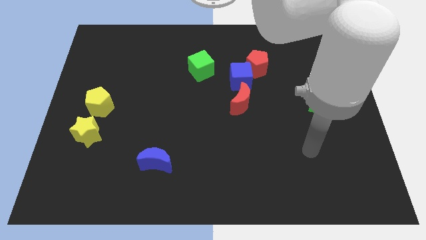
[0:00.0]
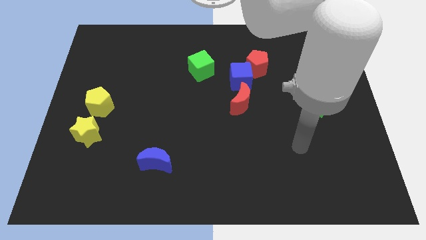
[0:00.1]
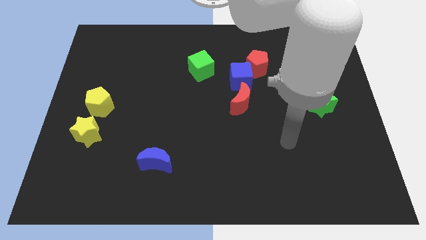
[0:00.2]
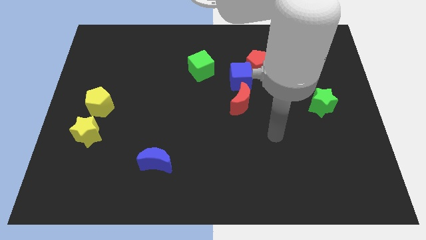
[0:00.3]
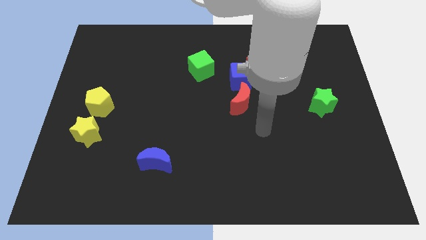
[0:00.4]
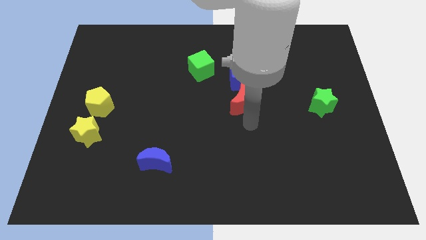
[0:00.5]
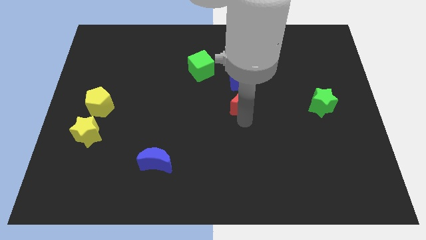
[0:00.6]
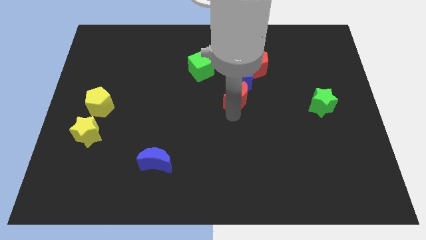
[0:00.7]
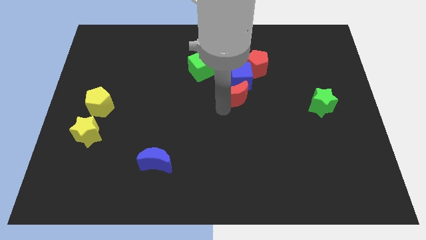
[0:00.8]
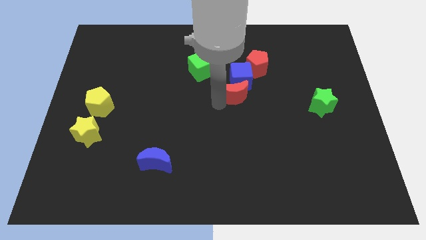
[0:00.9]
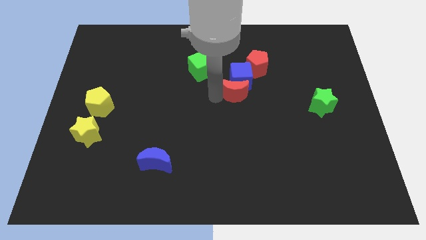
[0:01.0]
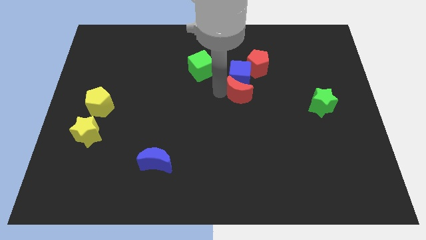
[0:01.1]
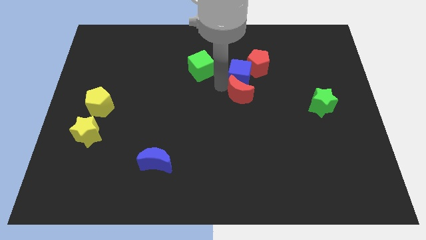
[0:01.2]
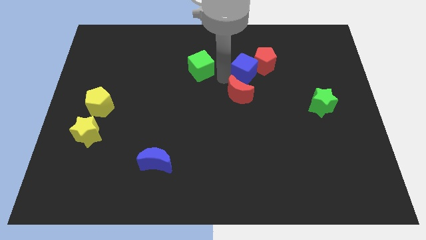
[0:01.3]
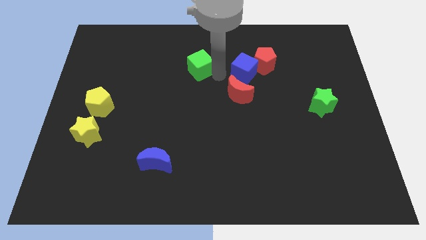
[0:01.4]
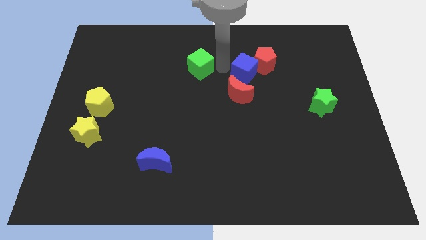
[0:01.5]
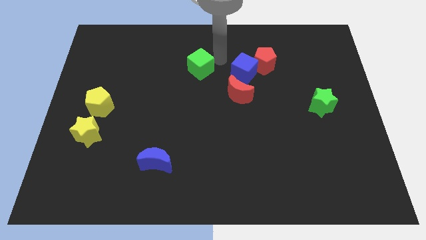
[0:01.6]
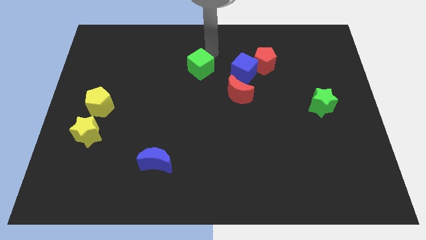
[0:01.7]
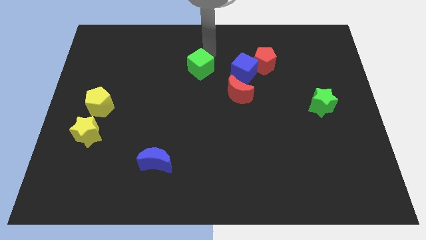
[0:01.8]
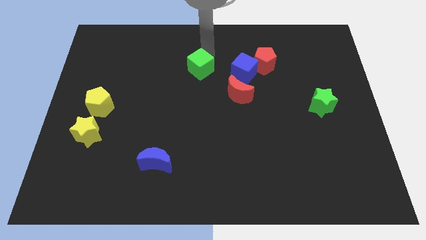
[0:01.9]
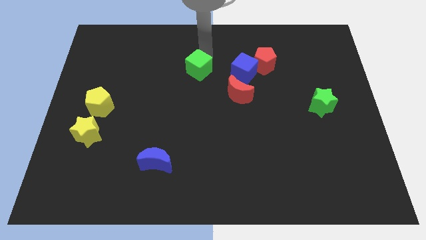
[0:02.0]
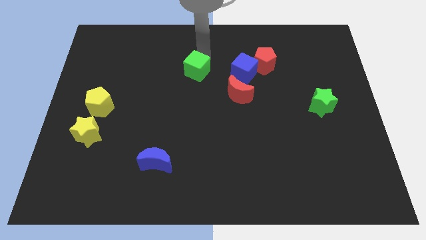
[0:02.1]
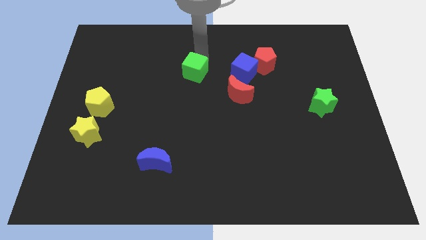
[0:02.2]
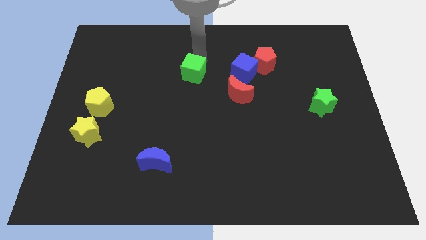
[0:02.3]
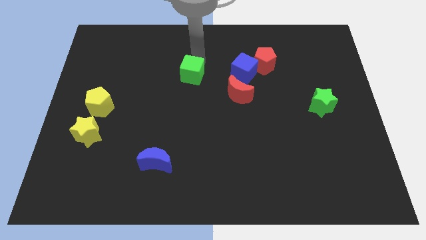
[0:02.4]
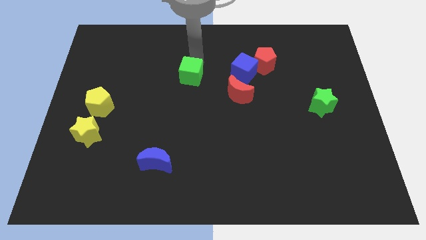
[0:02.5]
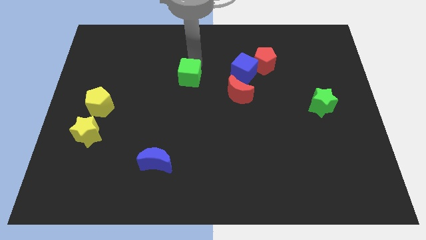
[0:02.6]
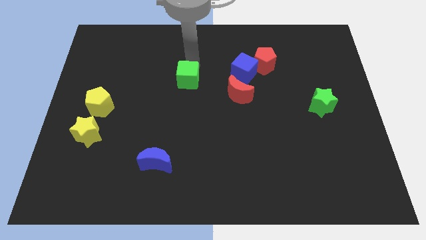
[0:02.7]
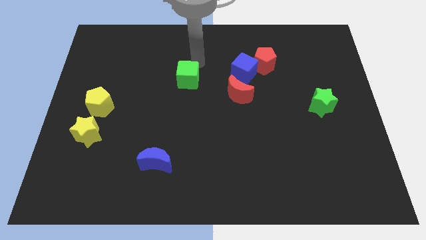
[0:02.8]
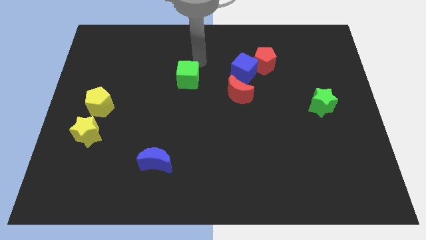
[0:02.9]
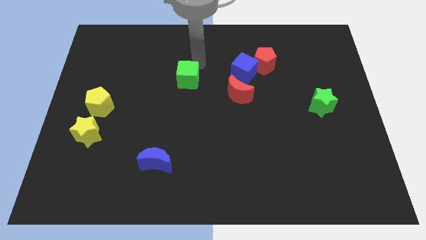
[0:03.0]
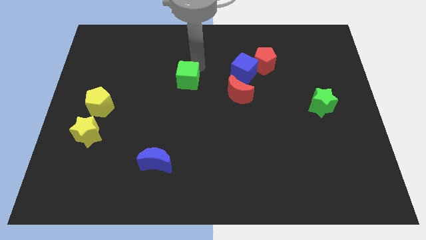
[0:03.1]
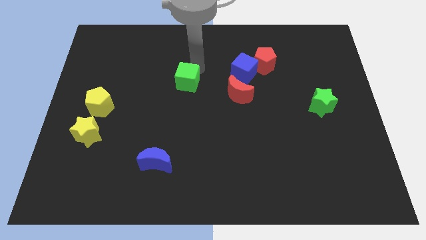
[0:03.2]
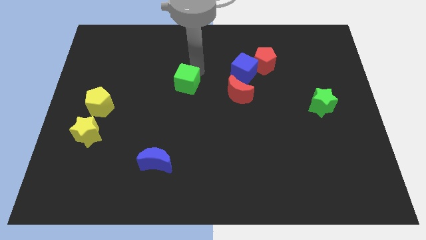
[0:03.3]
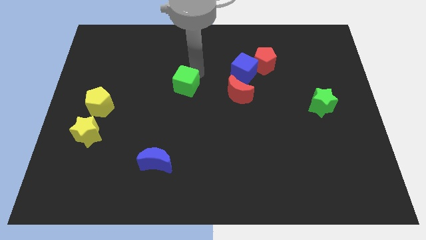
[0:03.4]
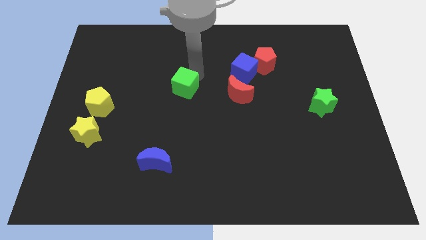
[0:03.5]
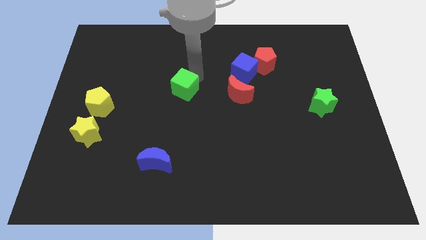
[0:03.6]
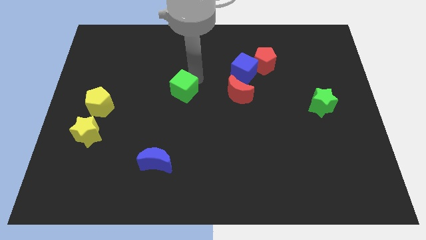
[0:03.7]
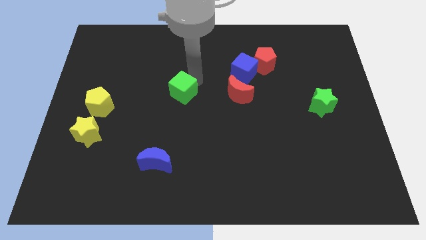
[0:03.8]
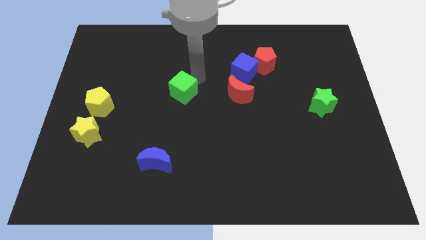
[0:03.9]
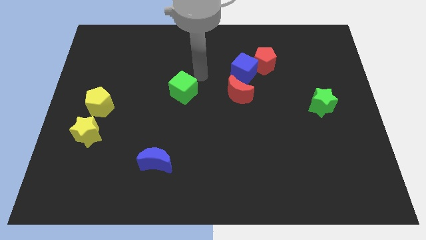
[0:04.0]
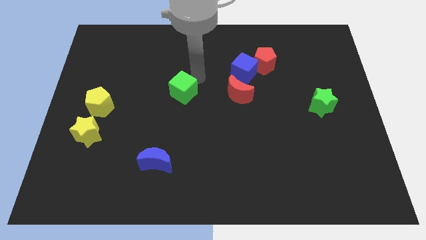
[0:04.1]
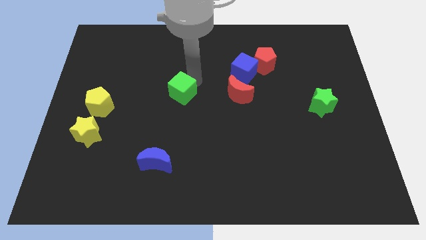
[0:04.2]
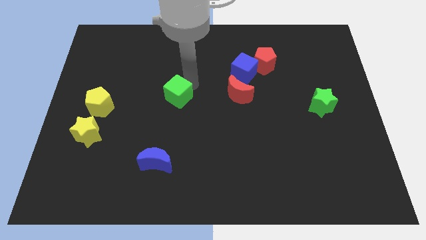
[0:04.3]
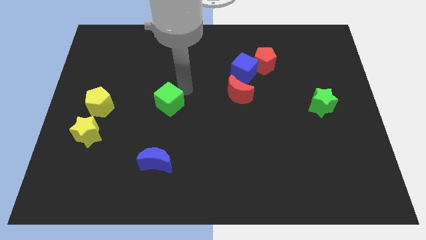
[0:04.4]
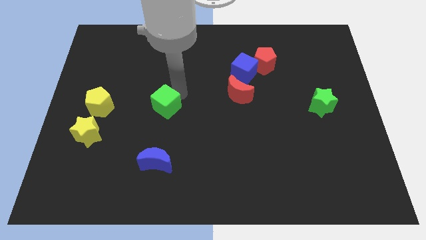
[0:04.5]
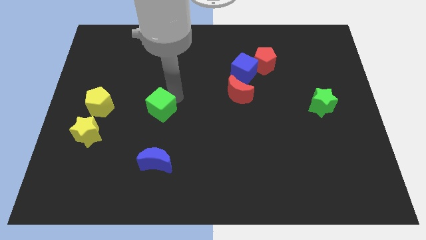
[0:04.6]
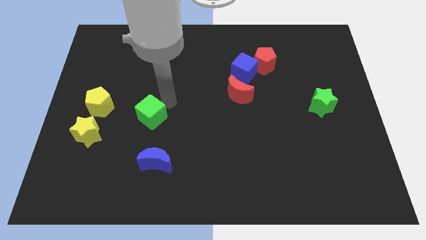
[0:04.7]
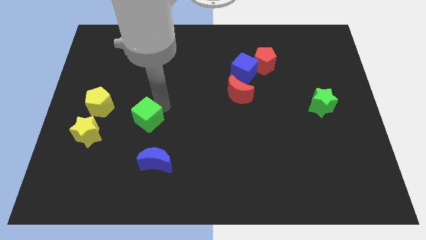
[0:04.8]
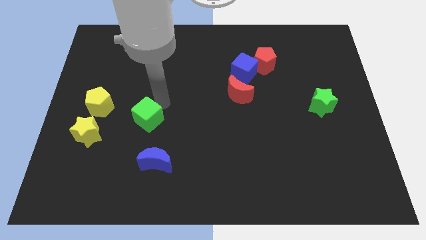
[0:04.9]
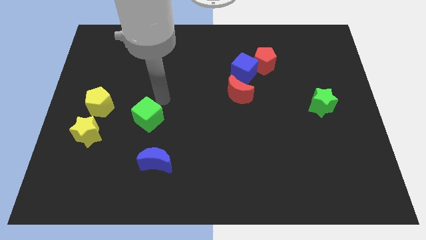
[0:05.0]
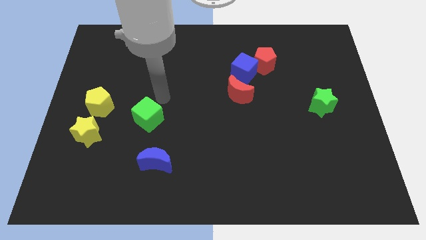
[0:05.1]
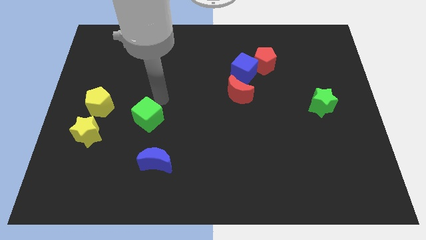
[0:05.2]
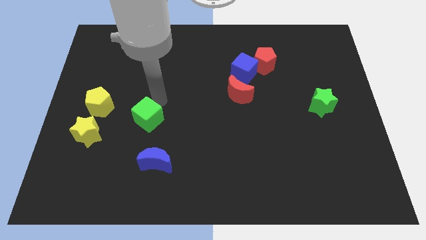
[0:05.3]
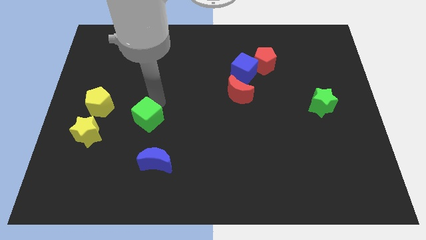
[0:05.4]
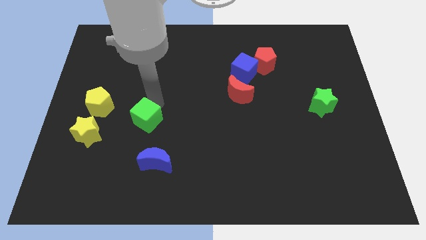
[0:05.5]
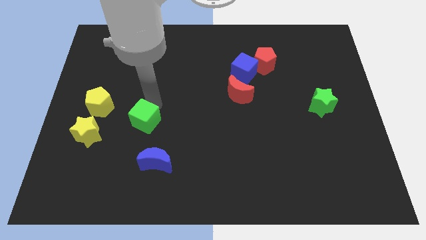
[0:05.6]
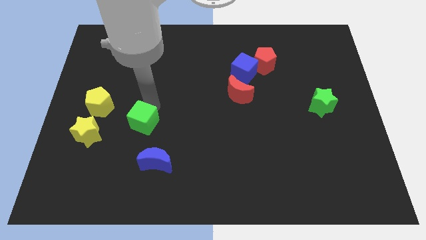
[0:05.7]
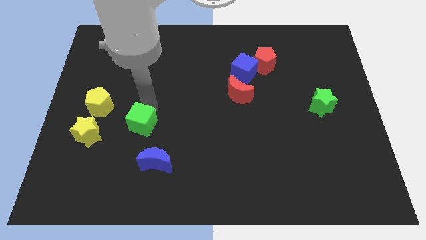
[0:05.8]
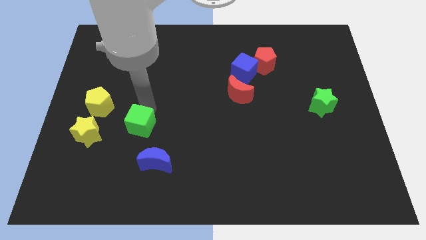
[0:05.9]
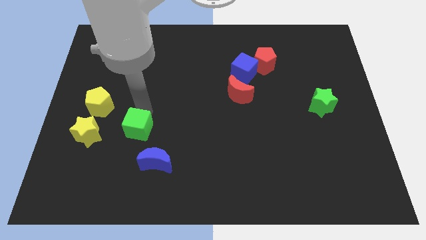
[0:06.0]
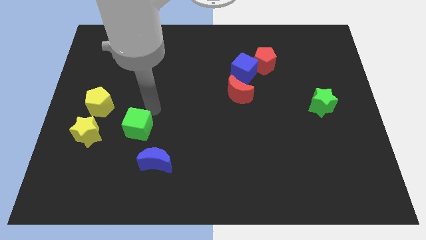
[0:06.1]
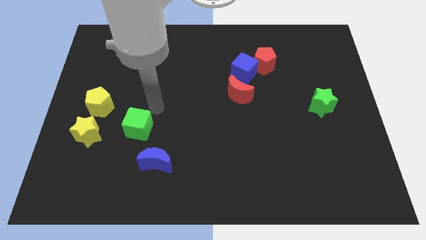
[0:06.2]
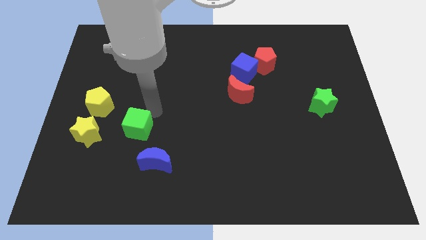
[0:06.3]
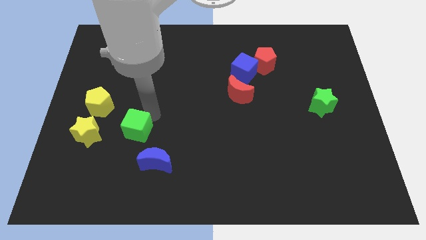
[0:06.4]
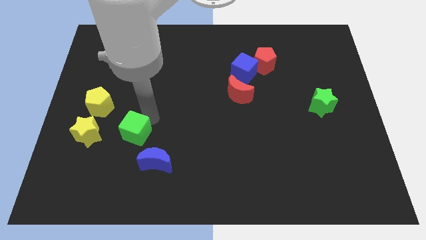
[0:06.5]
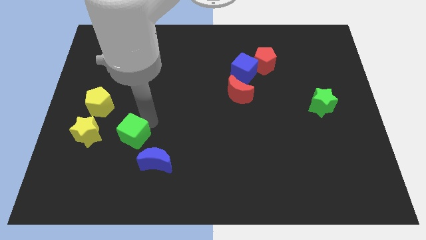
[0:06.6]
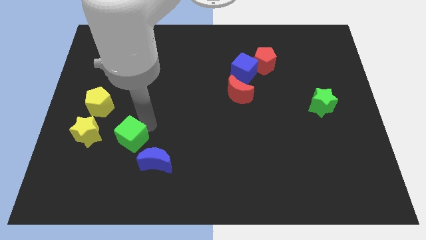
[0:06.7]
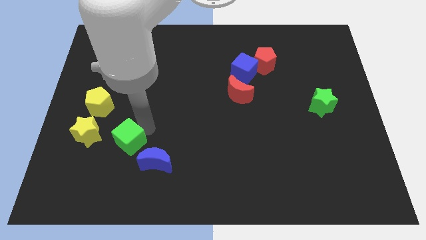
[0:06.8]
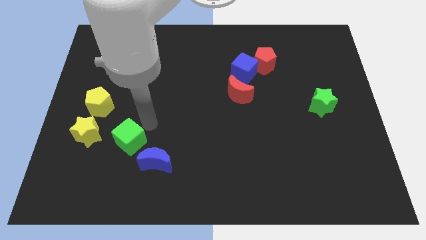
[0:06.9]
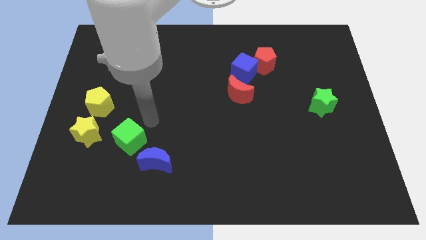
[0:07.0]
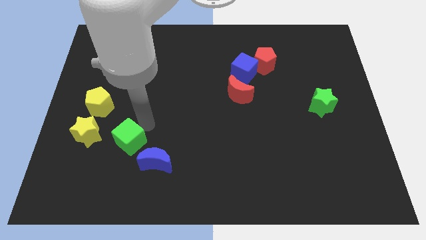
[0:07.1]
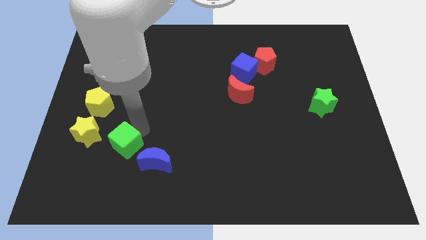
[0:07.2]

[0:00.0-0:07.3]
slide the green cube left of the blue moon

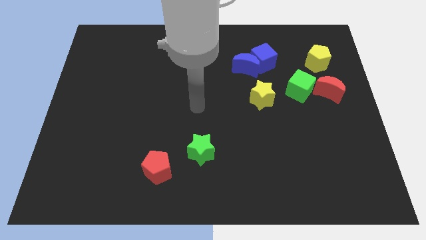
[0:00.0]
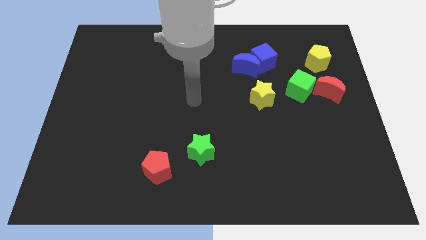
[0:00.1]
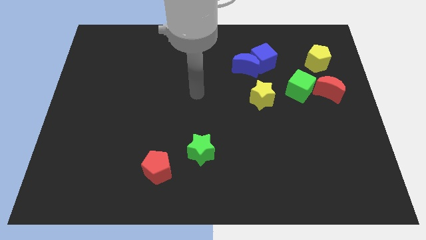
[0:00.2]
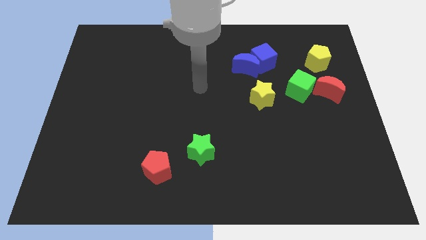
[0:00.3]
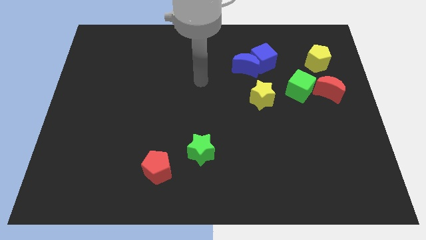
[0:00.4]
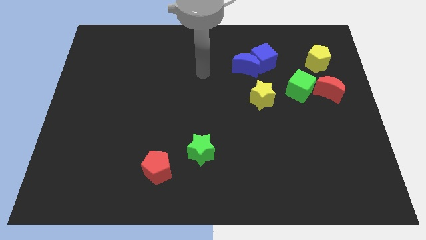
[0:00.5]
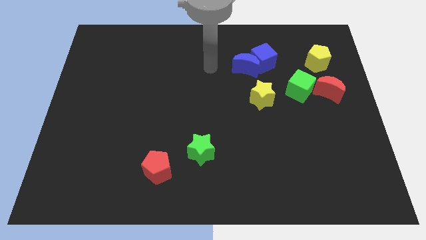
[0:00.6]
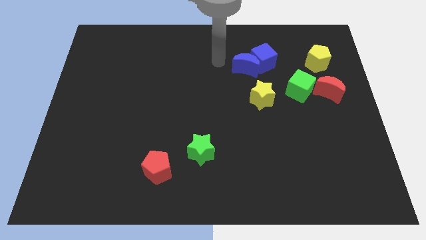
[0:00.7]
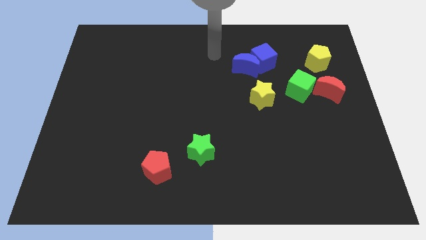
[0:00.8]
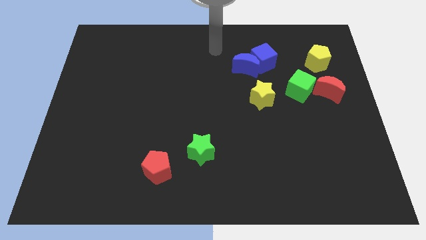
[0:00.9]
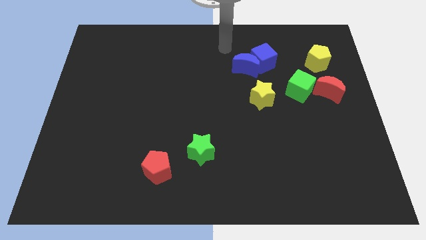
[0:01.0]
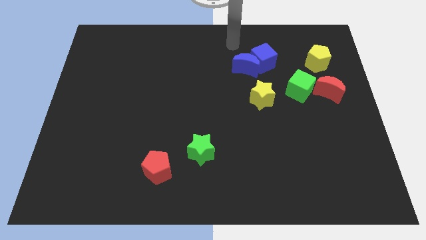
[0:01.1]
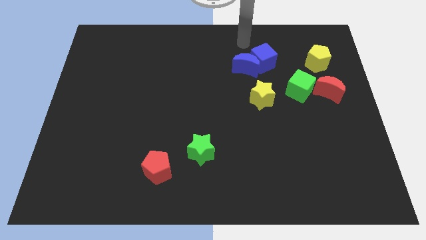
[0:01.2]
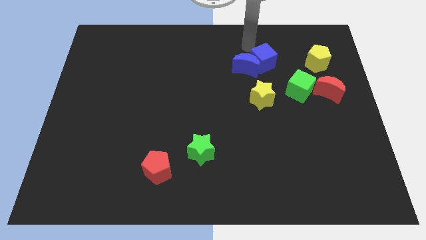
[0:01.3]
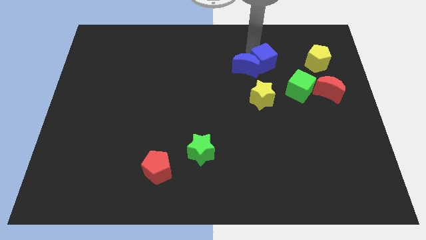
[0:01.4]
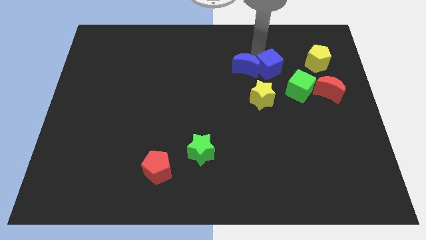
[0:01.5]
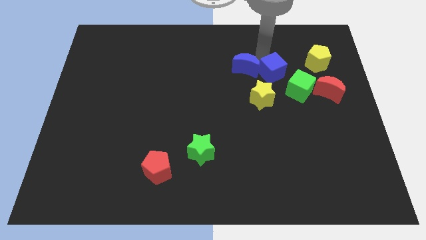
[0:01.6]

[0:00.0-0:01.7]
move the blue cube diagonally up and to the right of the yellow star
